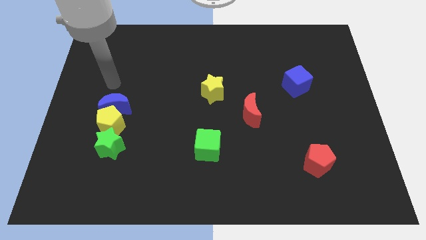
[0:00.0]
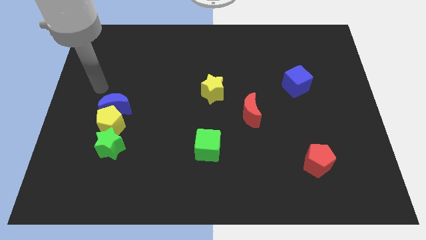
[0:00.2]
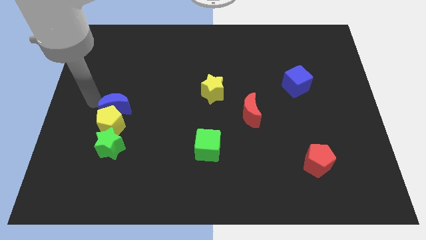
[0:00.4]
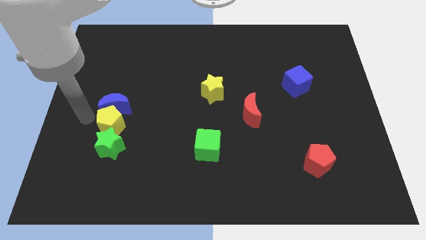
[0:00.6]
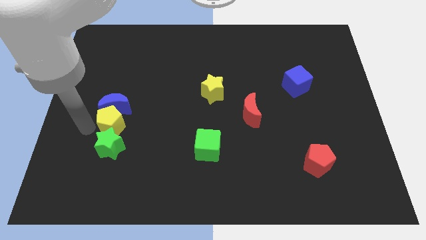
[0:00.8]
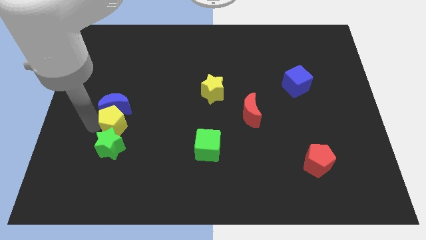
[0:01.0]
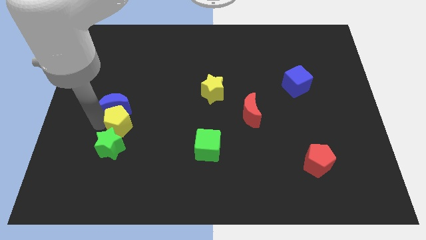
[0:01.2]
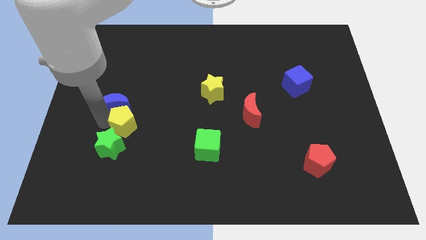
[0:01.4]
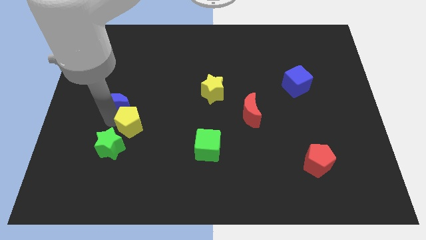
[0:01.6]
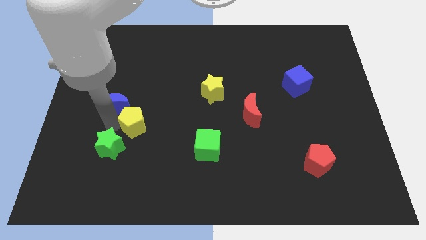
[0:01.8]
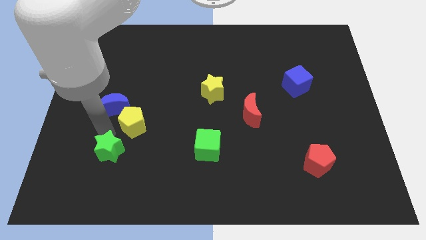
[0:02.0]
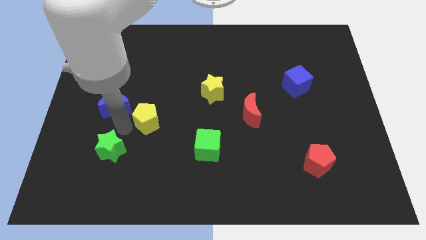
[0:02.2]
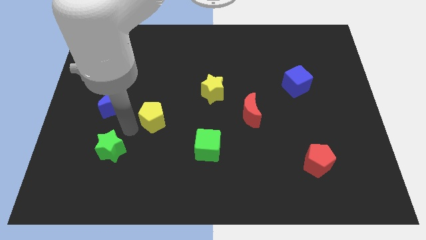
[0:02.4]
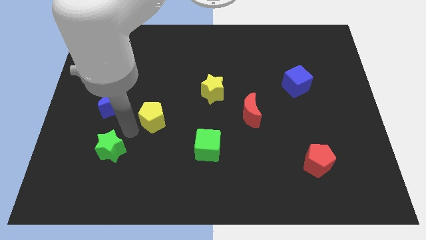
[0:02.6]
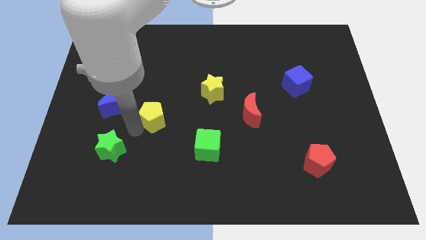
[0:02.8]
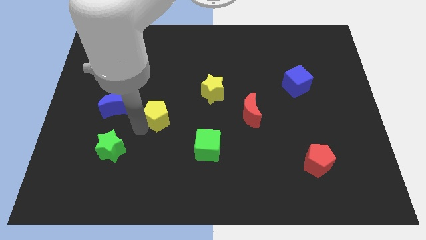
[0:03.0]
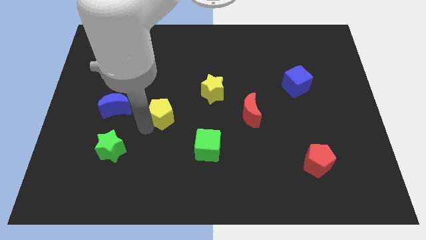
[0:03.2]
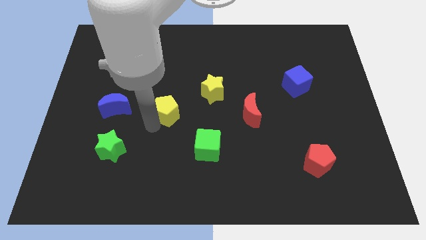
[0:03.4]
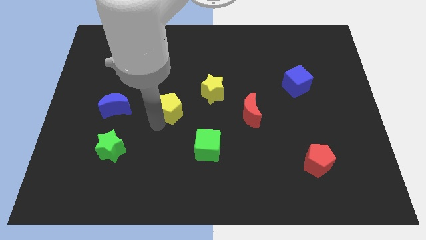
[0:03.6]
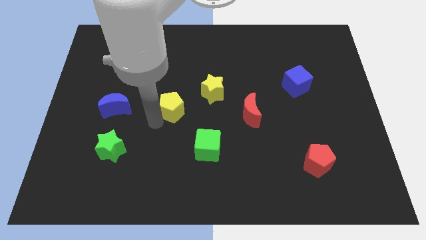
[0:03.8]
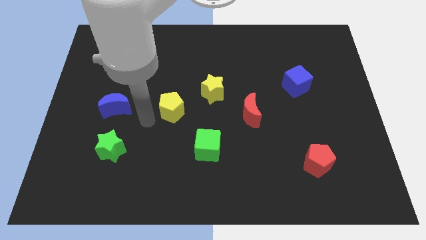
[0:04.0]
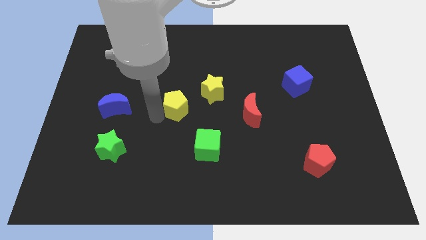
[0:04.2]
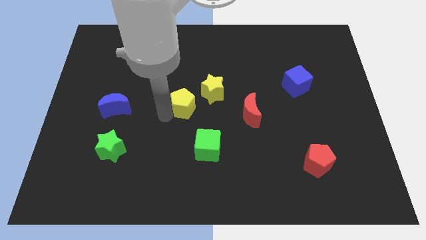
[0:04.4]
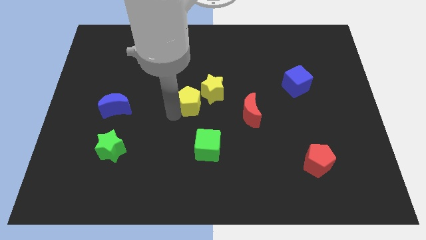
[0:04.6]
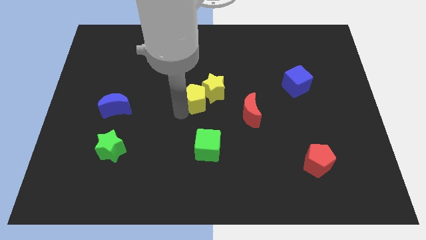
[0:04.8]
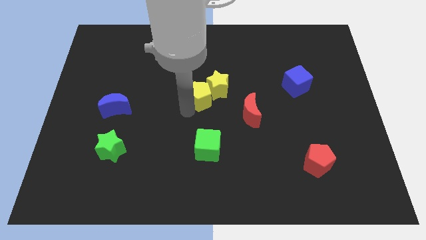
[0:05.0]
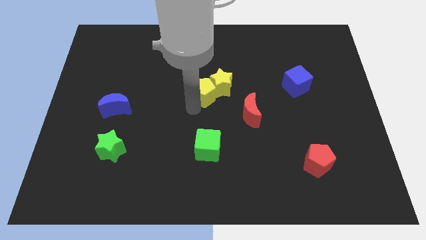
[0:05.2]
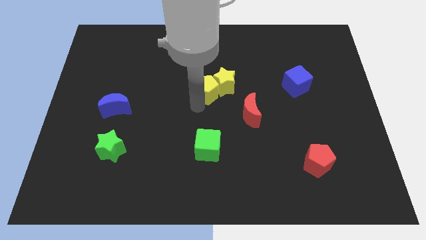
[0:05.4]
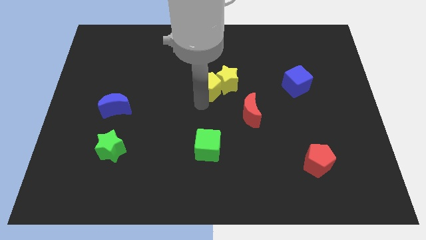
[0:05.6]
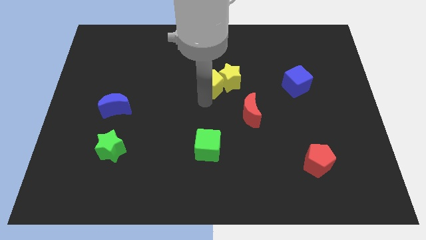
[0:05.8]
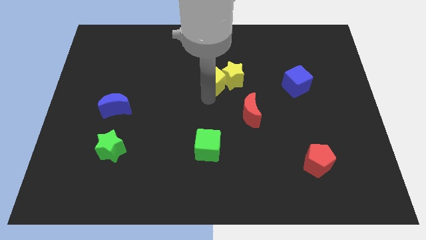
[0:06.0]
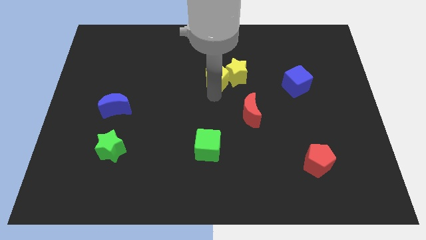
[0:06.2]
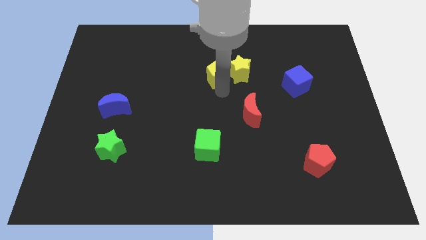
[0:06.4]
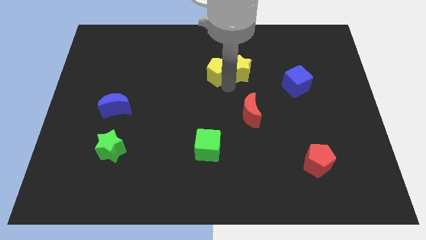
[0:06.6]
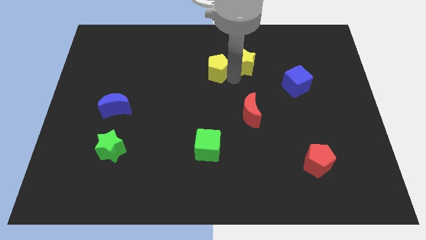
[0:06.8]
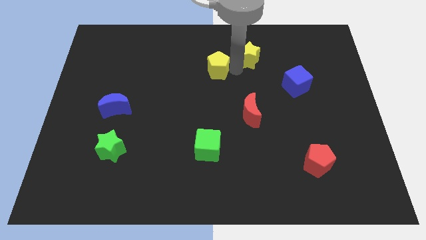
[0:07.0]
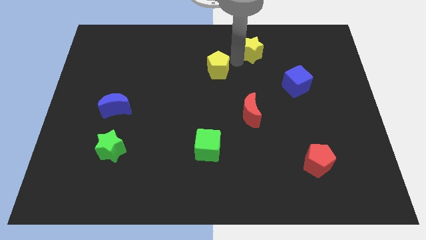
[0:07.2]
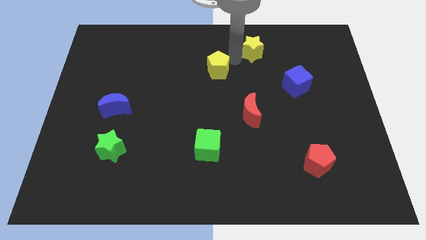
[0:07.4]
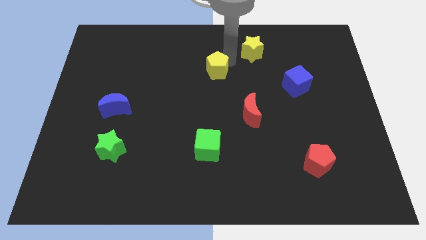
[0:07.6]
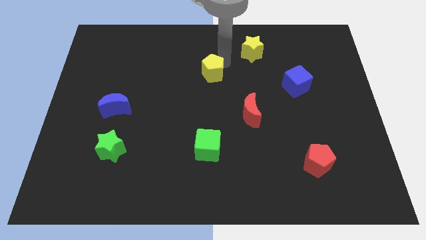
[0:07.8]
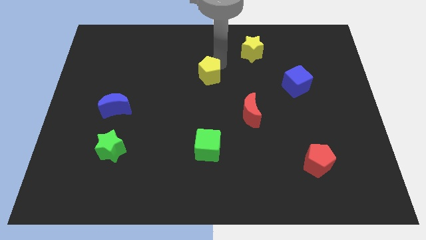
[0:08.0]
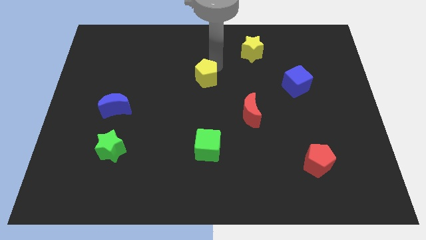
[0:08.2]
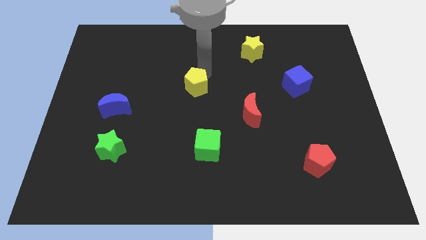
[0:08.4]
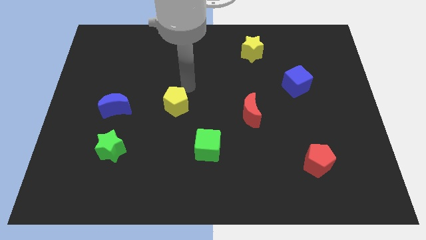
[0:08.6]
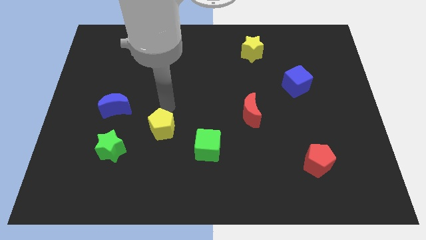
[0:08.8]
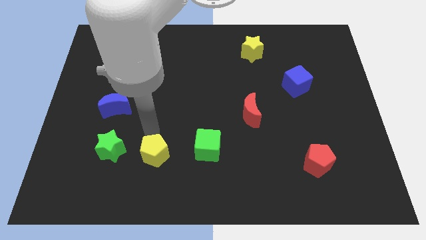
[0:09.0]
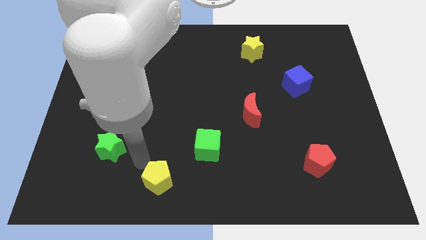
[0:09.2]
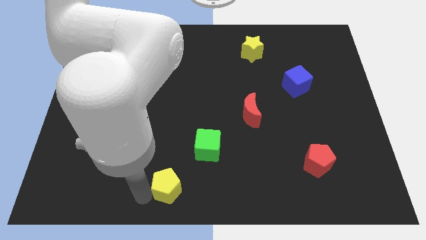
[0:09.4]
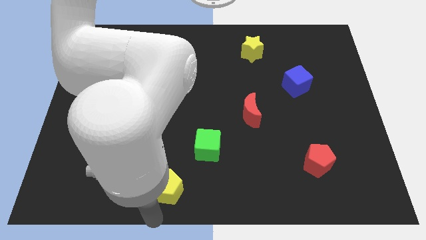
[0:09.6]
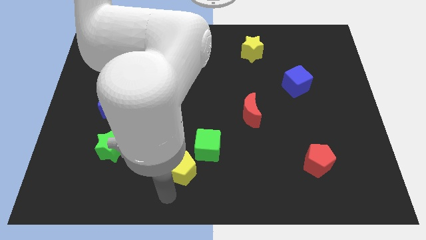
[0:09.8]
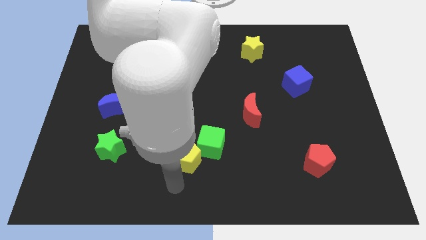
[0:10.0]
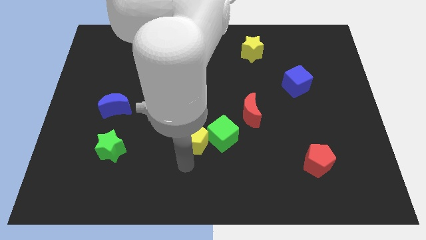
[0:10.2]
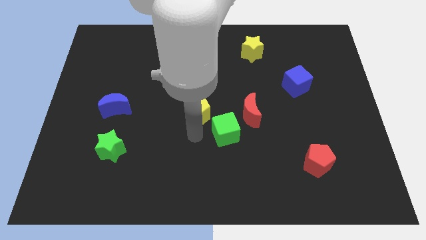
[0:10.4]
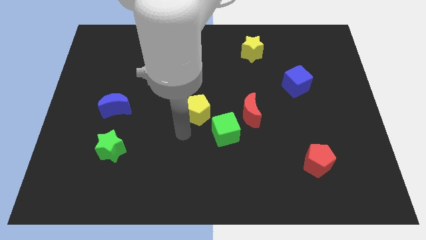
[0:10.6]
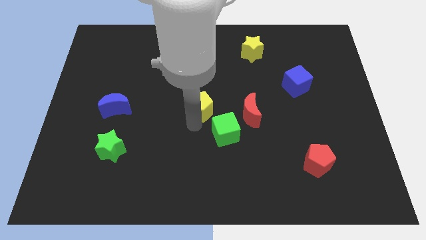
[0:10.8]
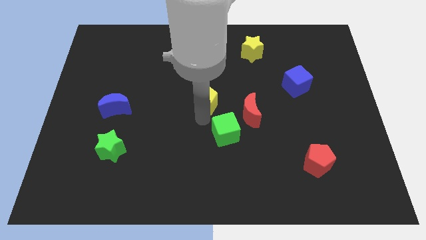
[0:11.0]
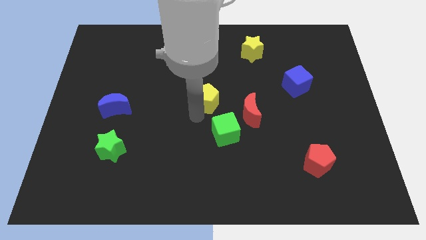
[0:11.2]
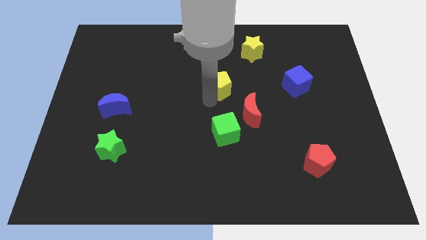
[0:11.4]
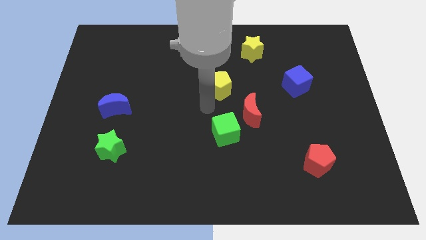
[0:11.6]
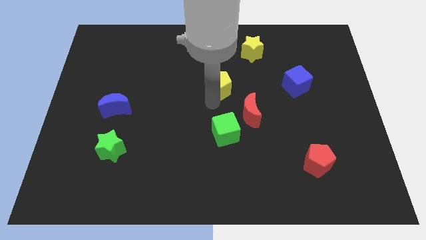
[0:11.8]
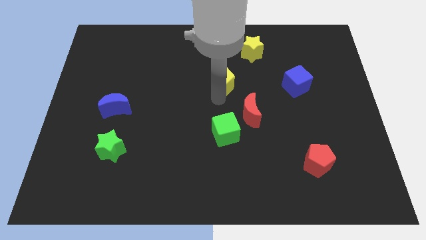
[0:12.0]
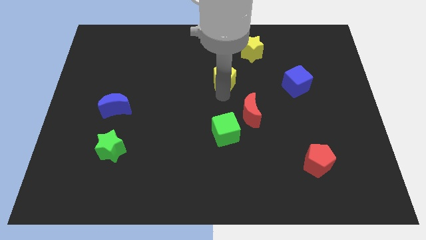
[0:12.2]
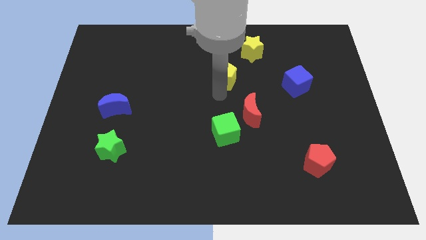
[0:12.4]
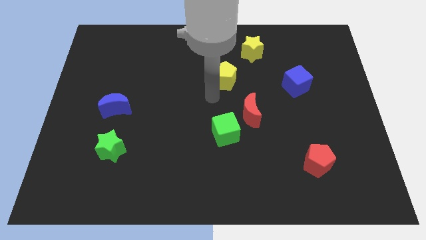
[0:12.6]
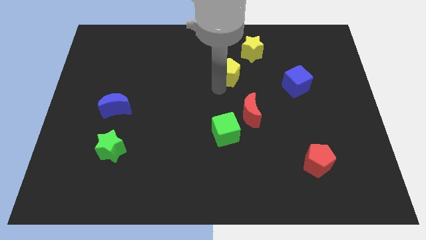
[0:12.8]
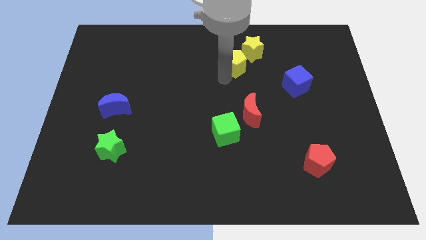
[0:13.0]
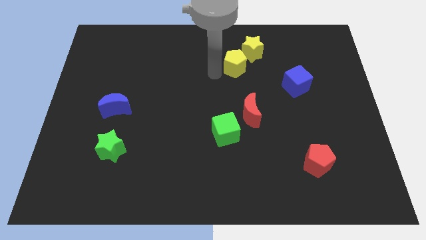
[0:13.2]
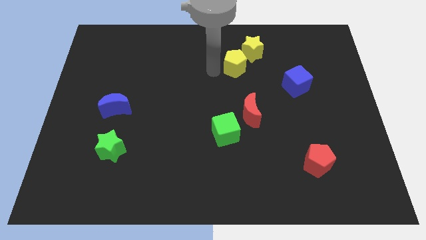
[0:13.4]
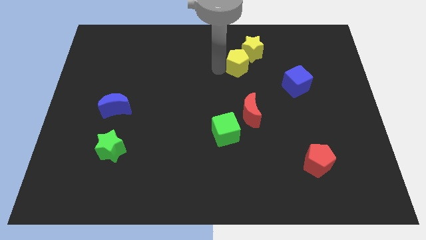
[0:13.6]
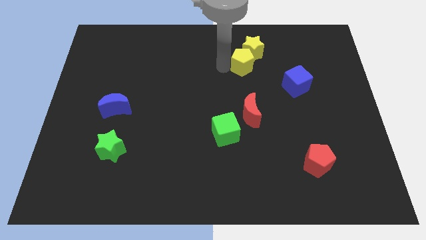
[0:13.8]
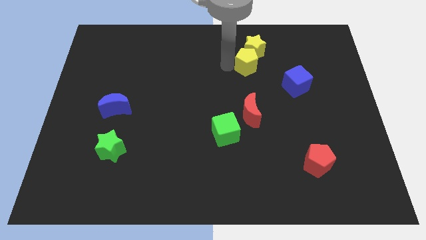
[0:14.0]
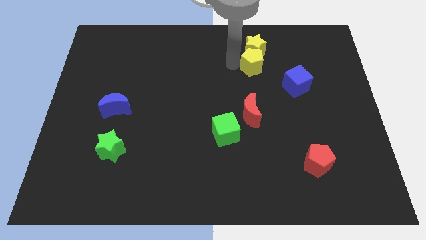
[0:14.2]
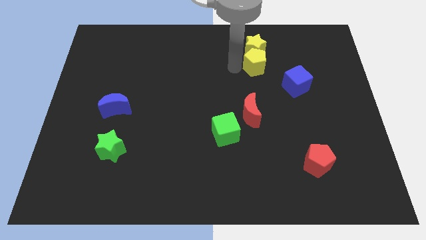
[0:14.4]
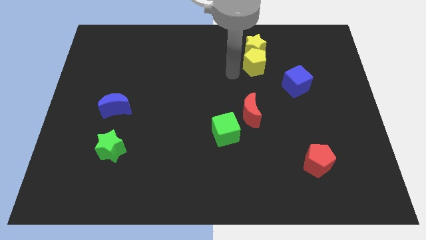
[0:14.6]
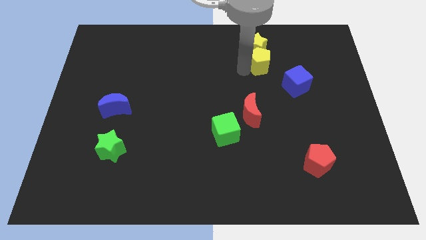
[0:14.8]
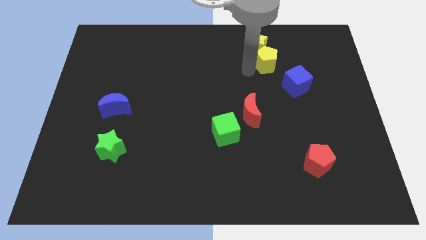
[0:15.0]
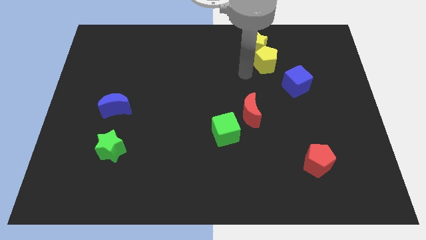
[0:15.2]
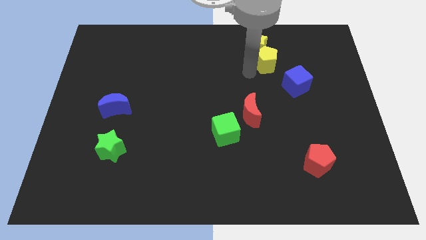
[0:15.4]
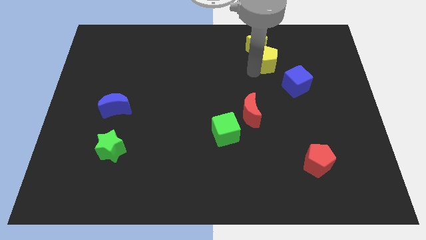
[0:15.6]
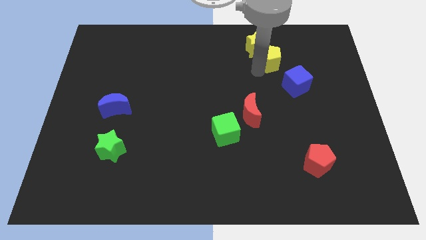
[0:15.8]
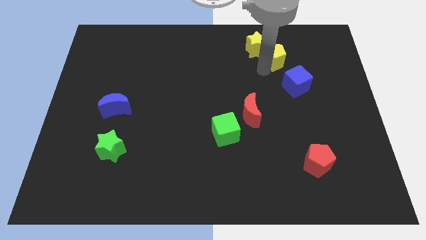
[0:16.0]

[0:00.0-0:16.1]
slide the yellow pentagon above the blue cube
